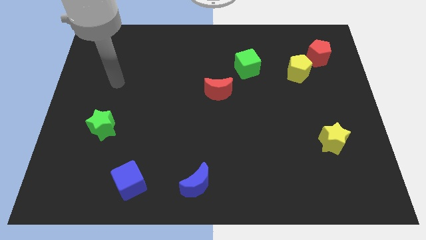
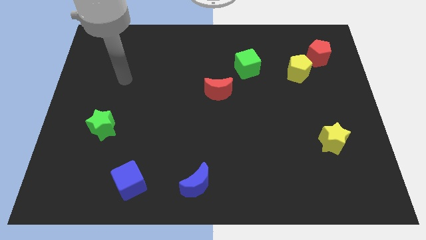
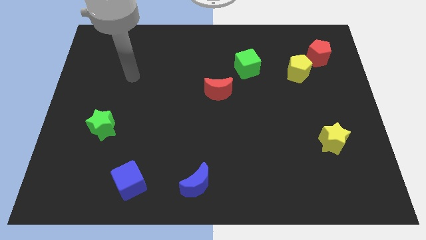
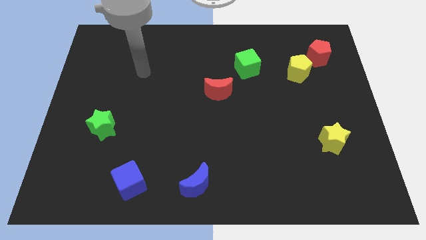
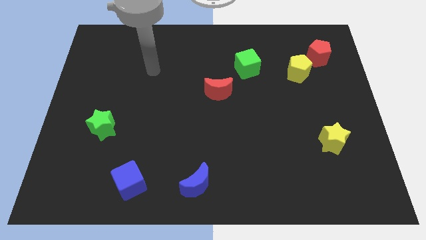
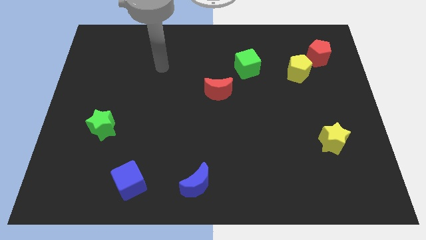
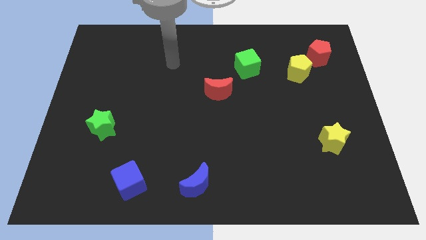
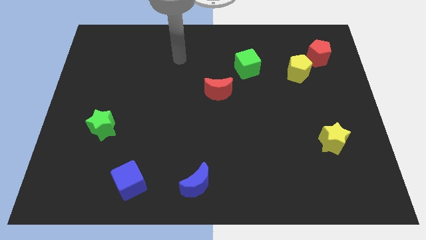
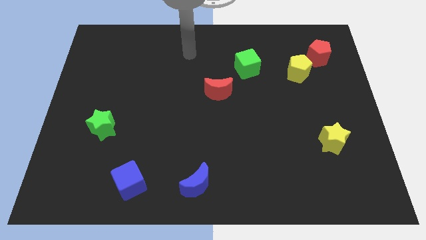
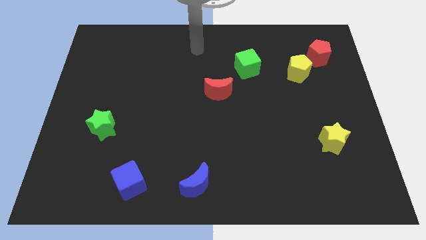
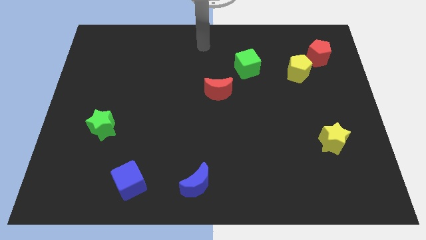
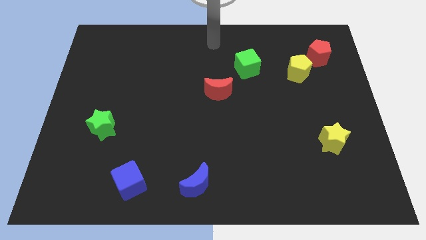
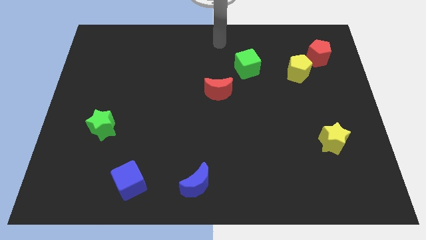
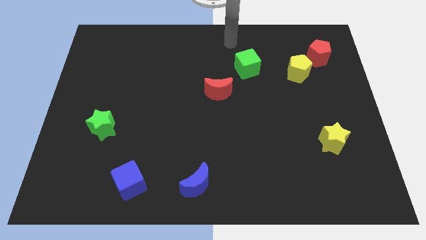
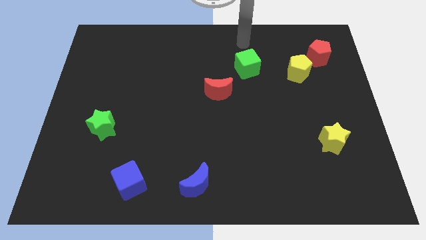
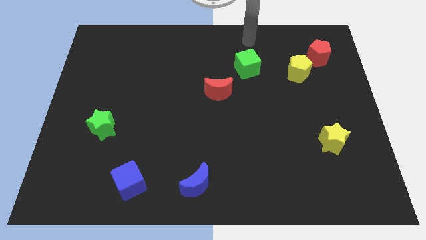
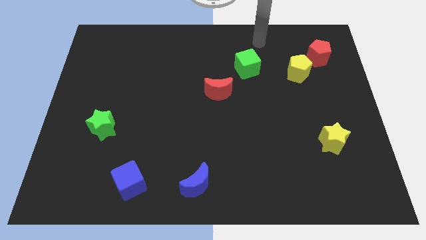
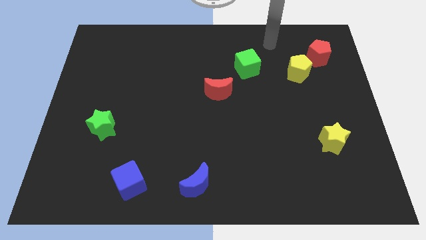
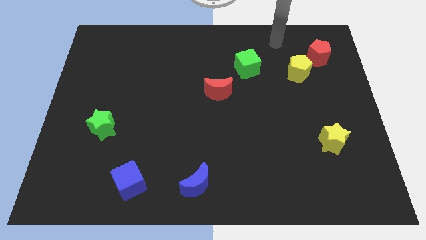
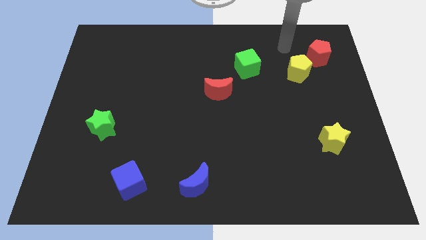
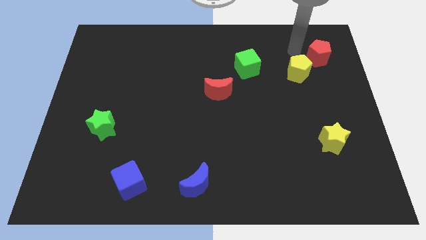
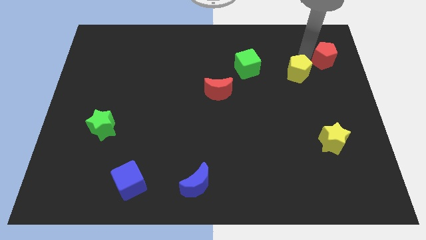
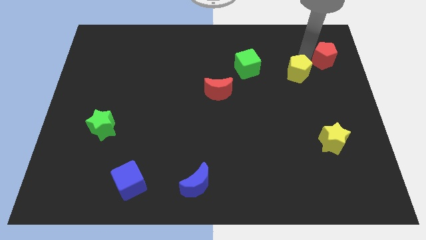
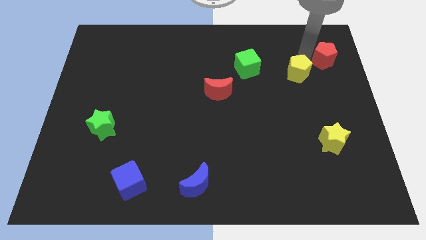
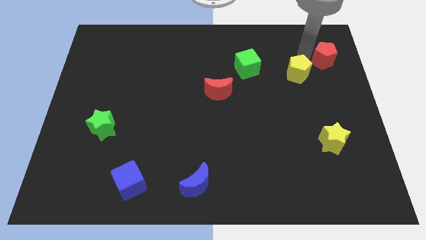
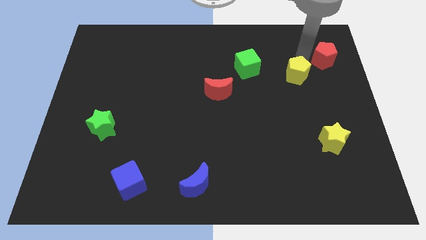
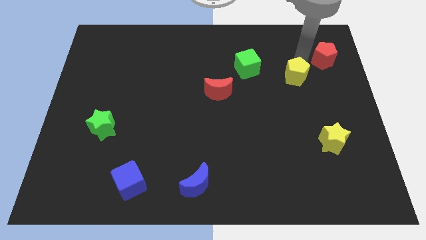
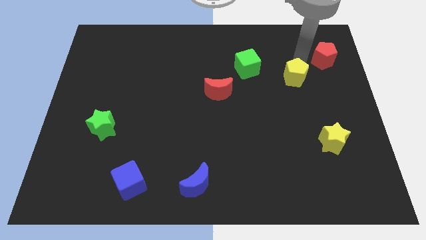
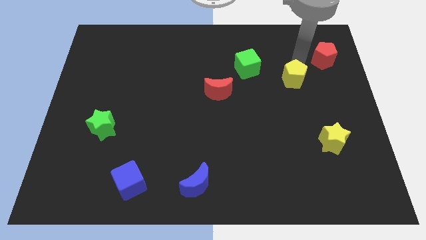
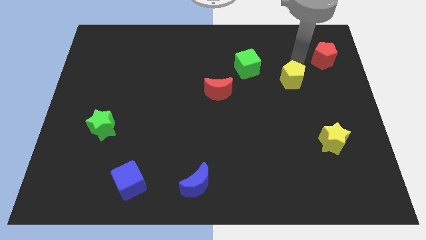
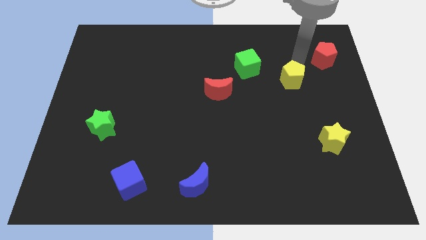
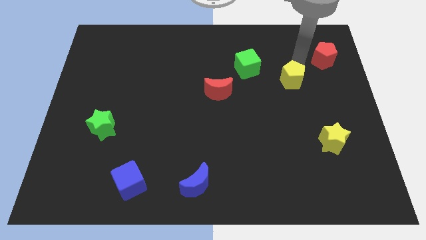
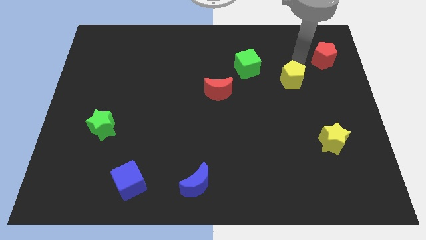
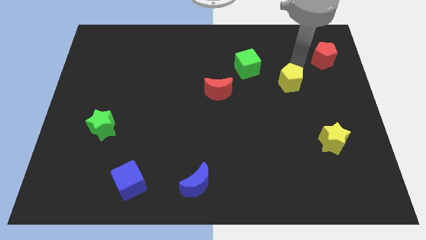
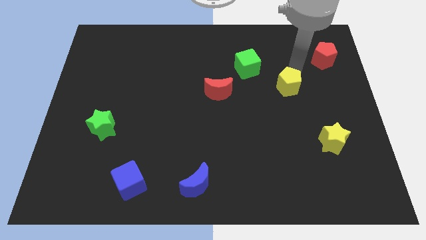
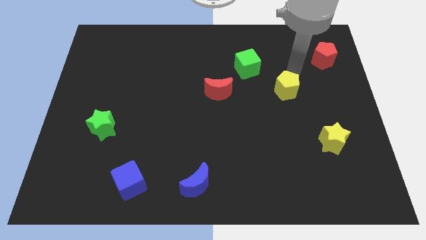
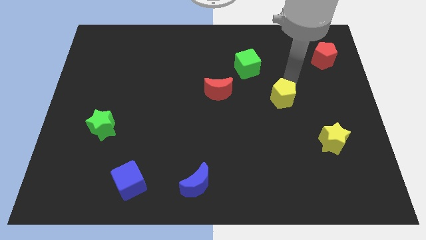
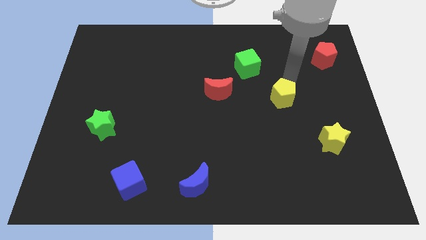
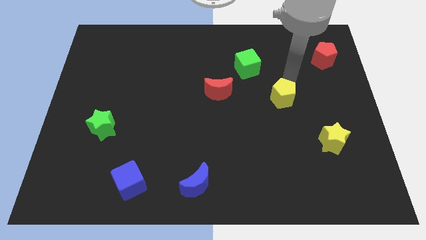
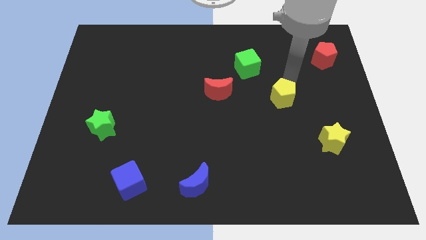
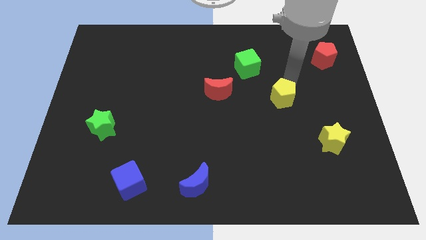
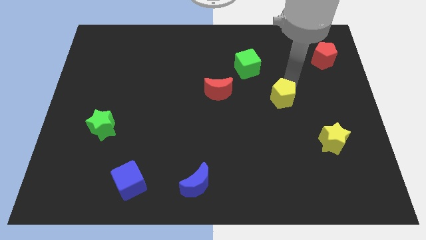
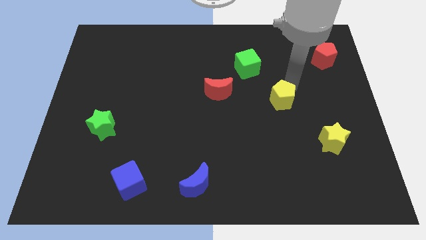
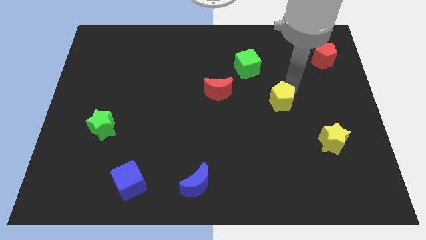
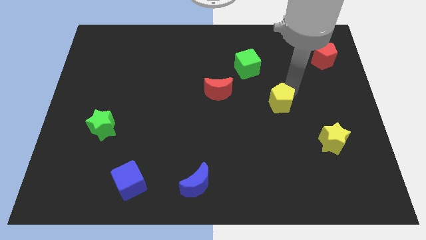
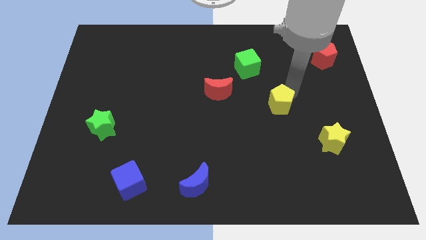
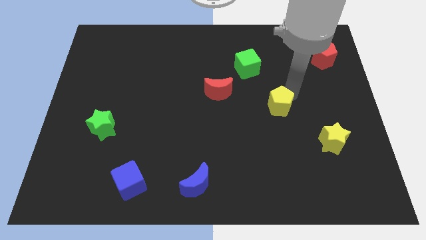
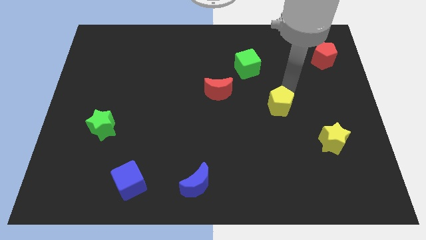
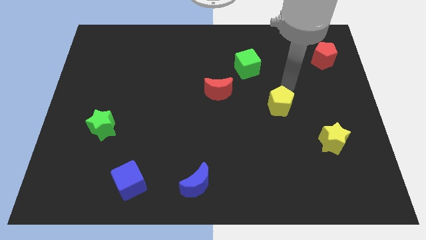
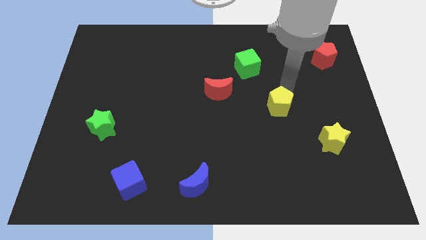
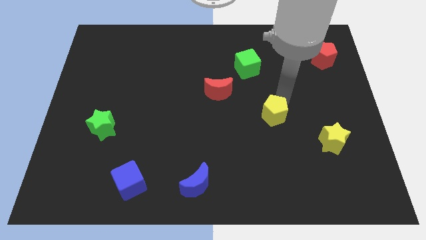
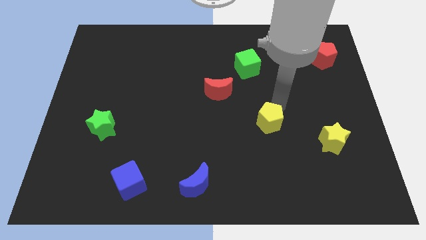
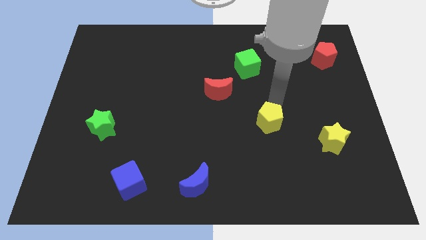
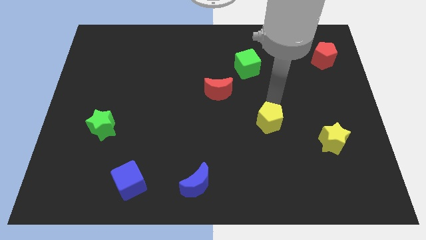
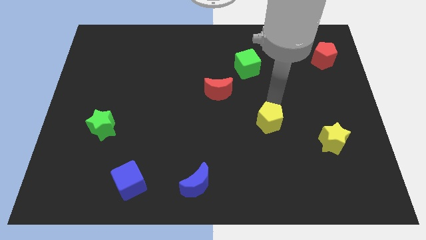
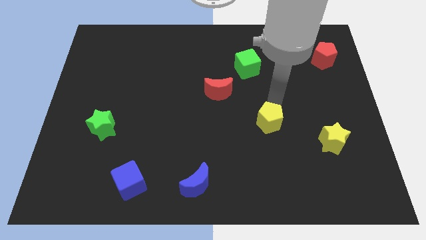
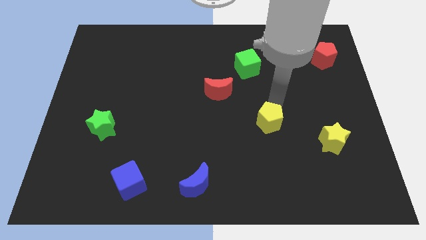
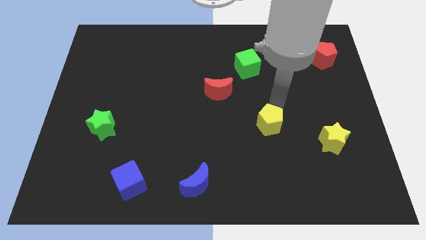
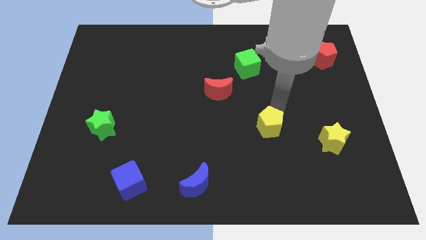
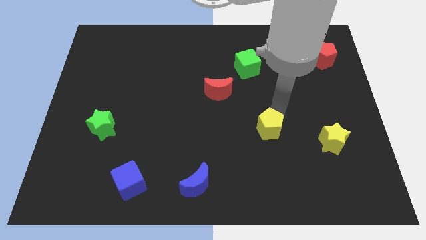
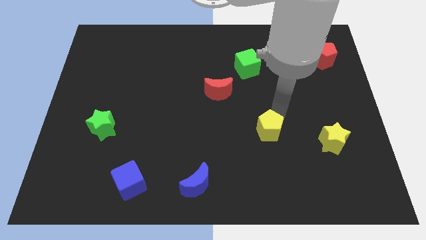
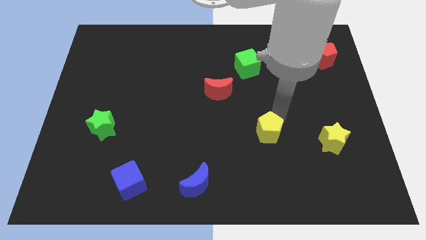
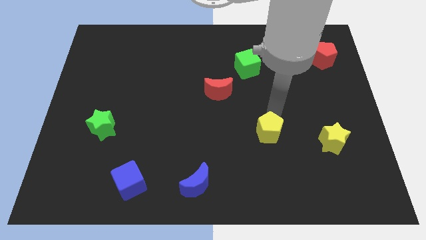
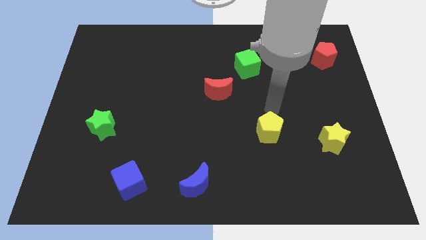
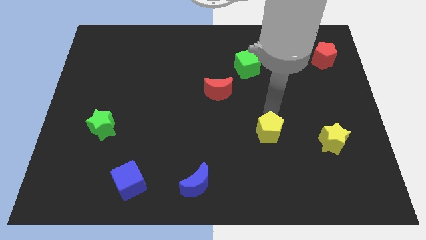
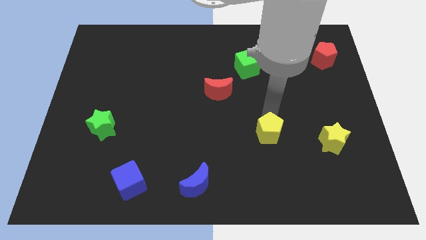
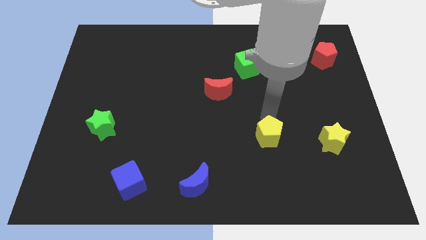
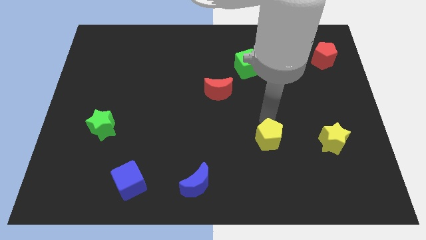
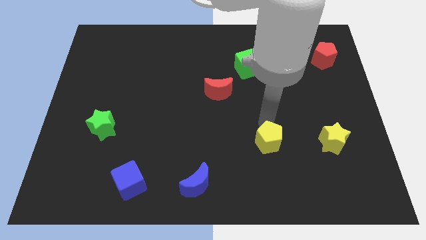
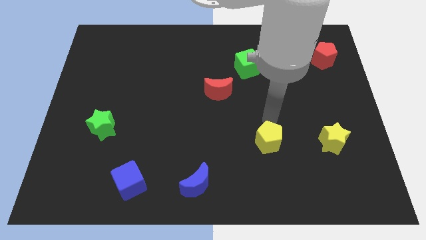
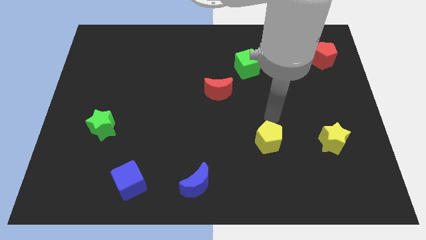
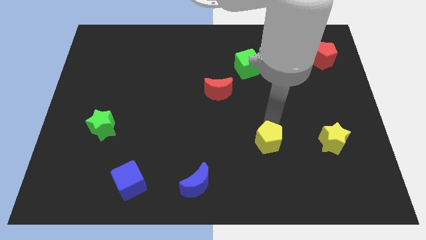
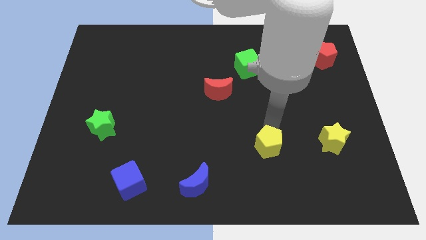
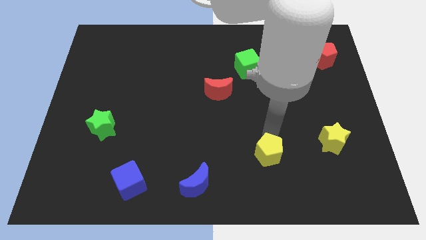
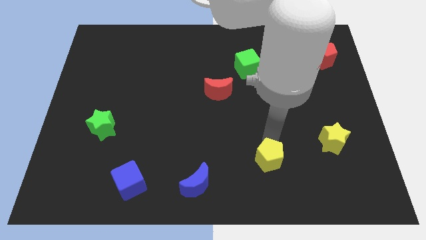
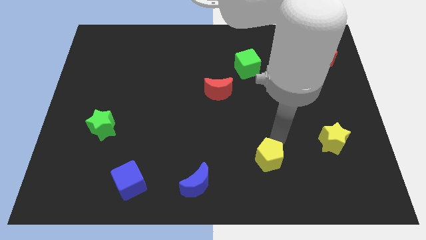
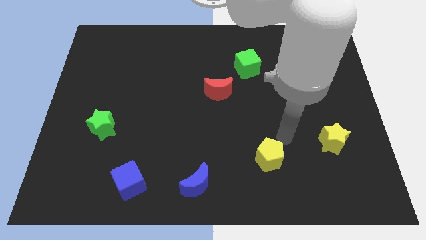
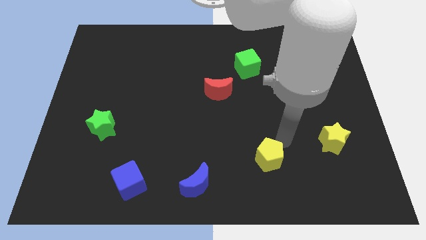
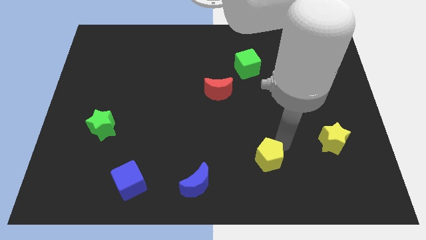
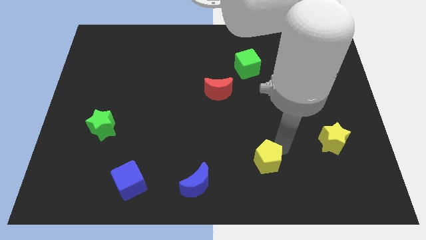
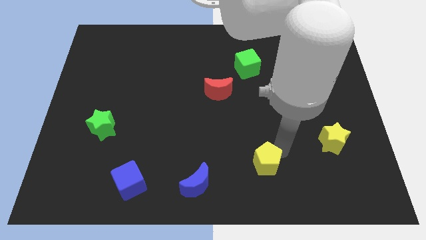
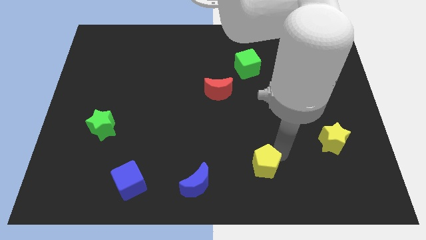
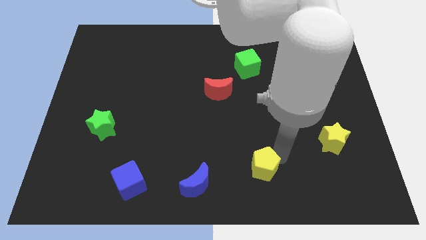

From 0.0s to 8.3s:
put the yellow pentagon just right of the blue moon
